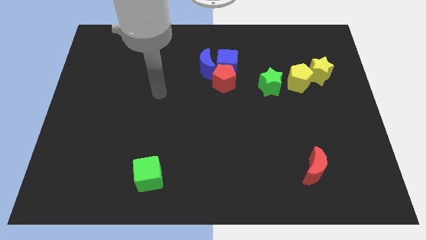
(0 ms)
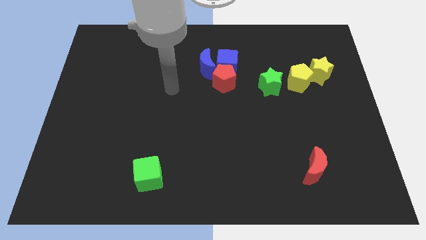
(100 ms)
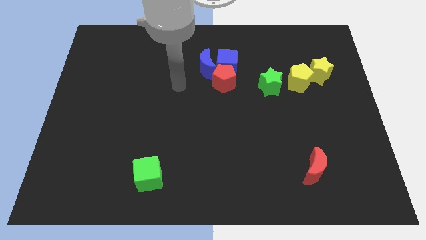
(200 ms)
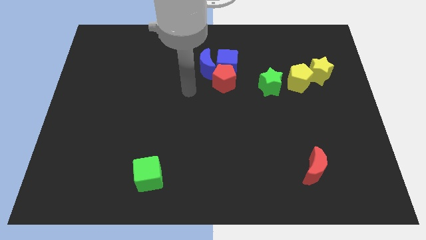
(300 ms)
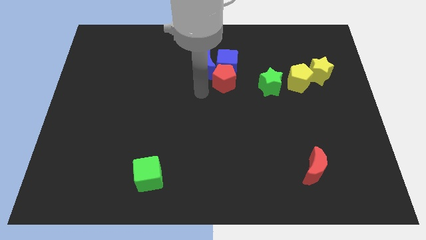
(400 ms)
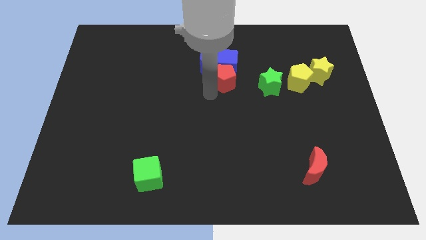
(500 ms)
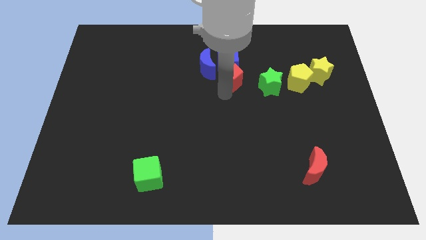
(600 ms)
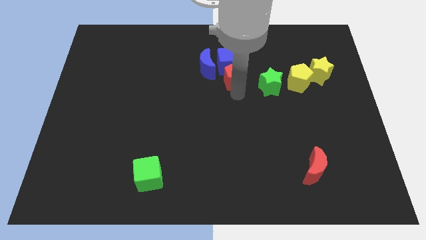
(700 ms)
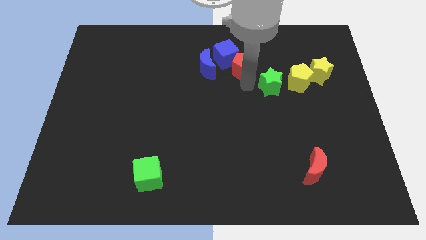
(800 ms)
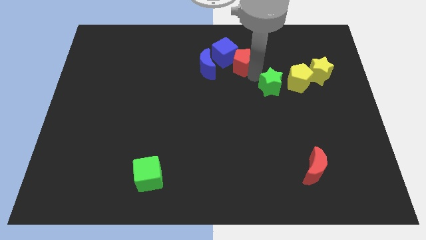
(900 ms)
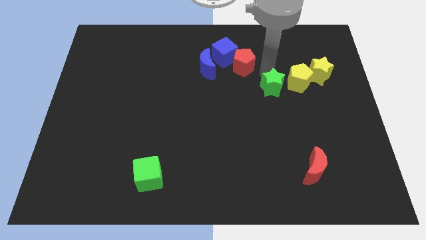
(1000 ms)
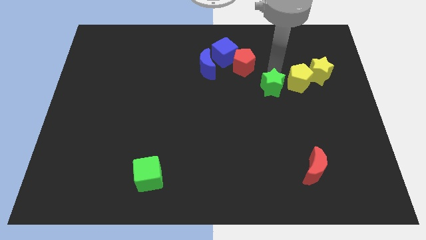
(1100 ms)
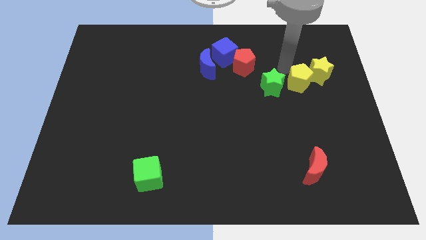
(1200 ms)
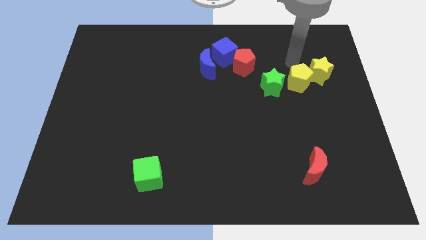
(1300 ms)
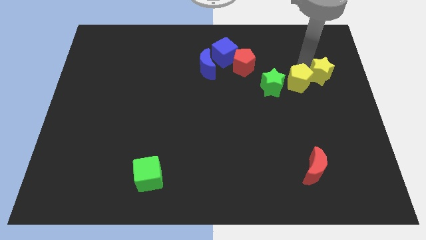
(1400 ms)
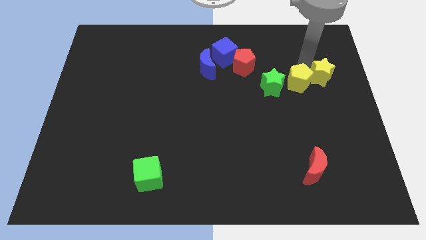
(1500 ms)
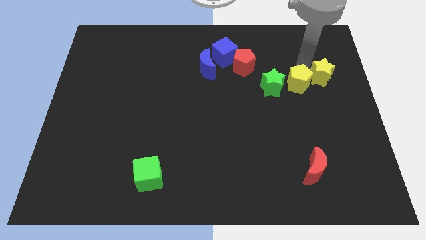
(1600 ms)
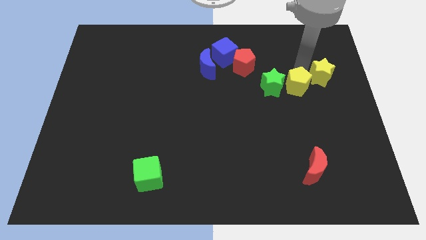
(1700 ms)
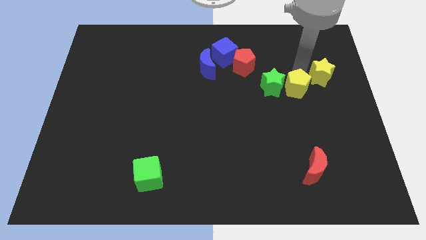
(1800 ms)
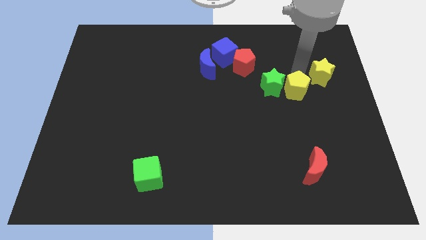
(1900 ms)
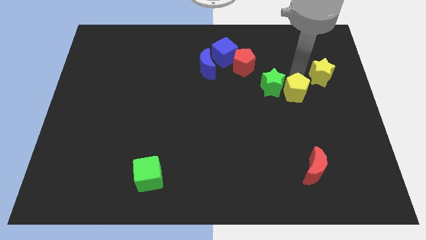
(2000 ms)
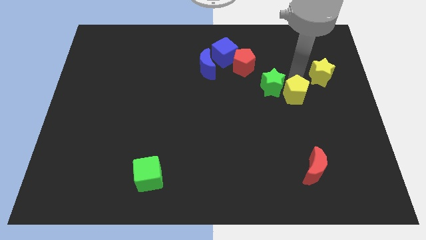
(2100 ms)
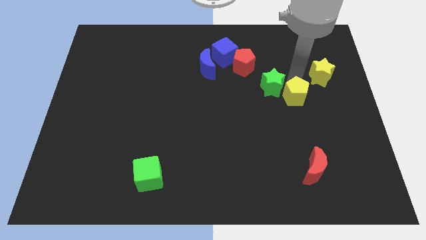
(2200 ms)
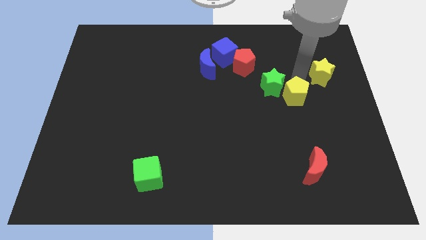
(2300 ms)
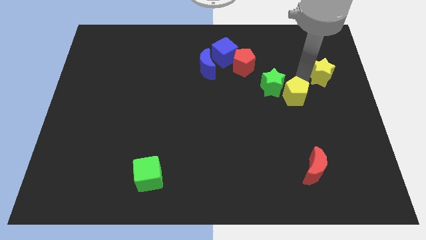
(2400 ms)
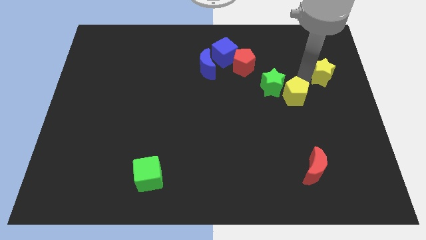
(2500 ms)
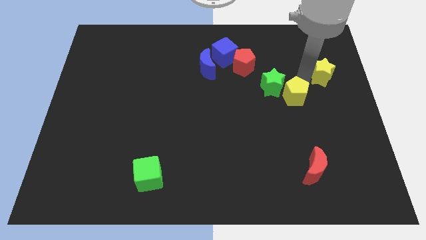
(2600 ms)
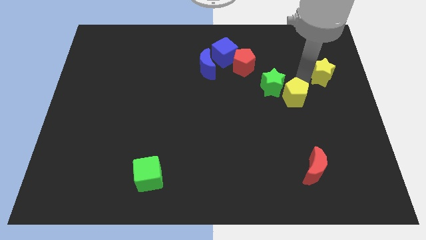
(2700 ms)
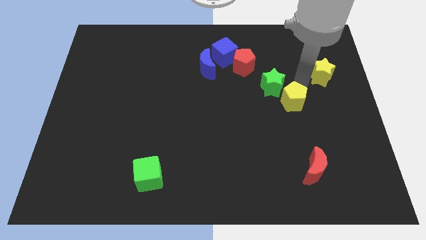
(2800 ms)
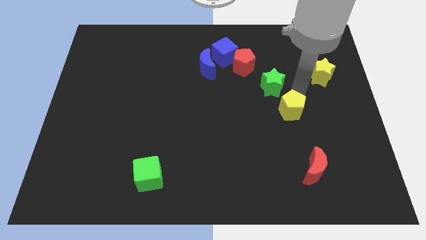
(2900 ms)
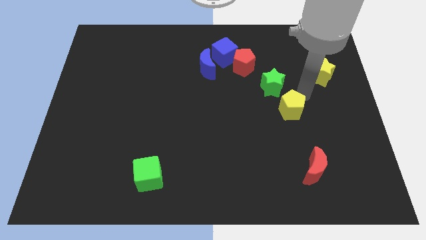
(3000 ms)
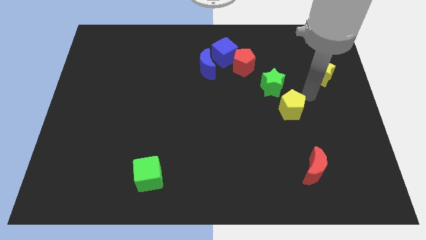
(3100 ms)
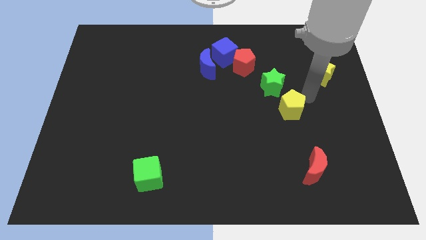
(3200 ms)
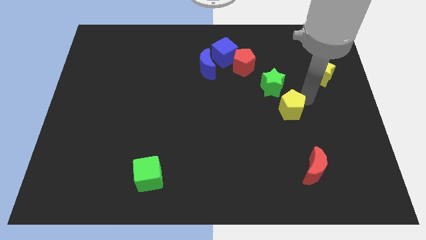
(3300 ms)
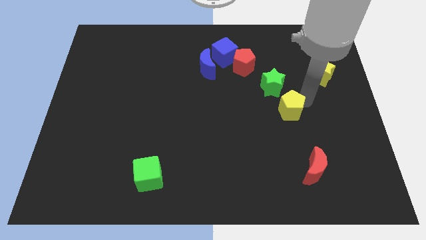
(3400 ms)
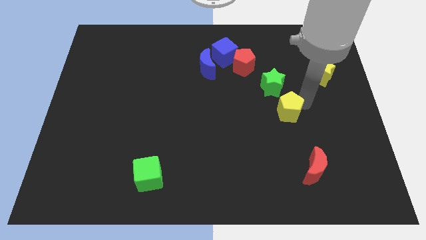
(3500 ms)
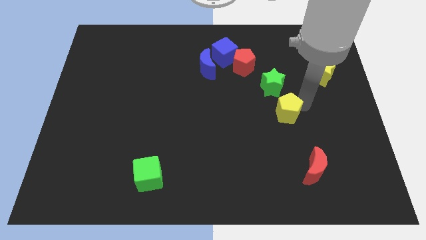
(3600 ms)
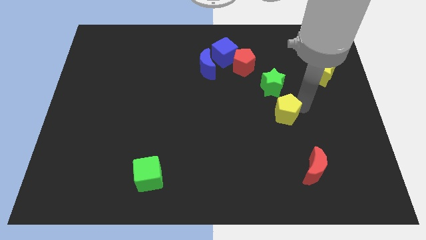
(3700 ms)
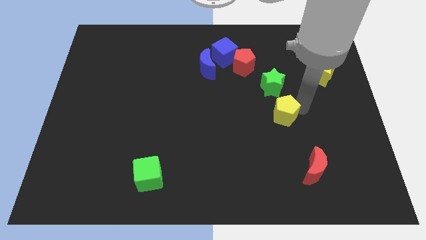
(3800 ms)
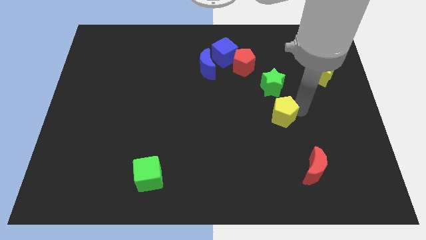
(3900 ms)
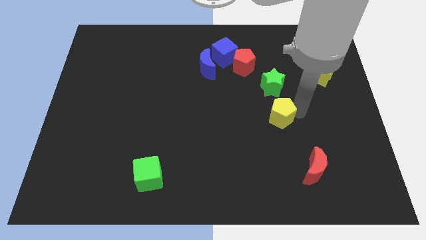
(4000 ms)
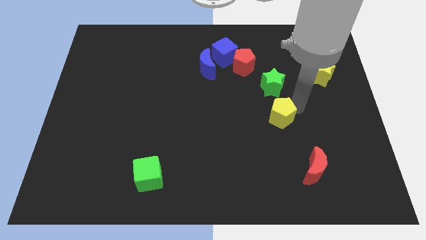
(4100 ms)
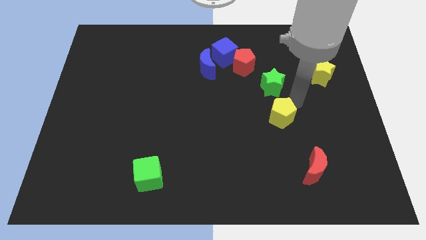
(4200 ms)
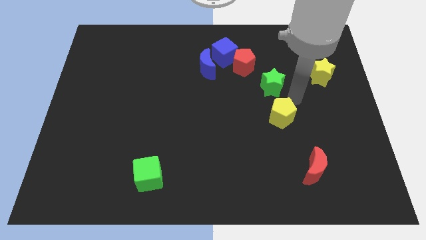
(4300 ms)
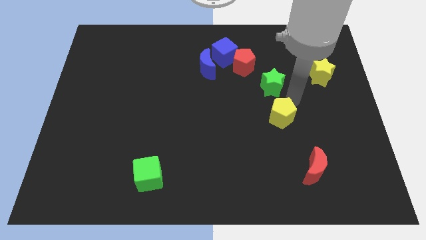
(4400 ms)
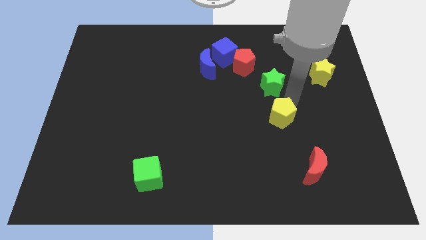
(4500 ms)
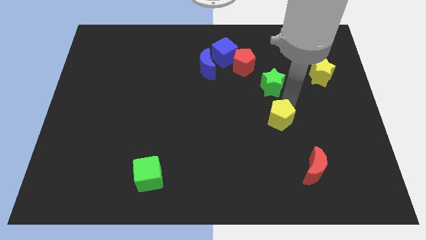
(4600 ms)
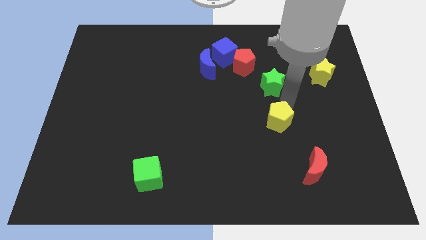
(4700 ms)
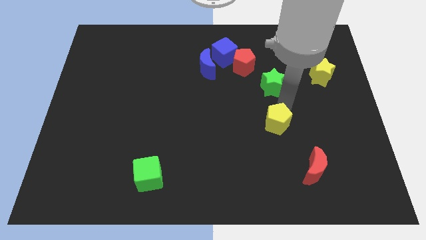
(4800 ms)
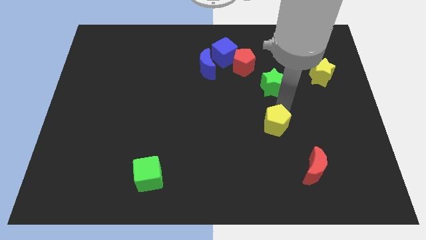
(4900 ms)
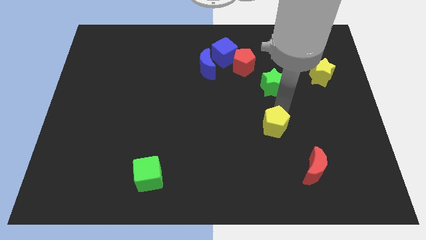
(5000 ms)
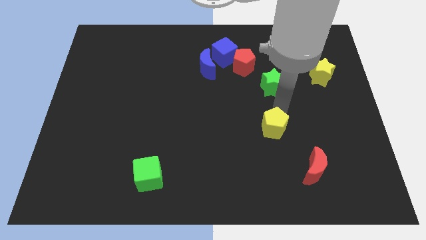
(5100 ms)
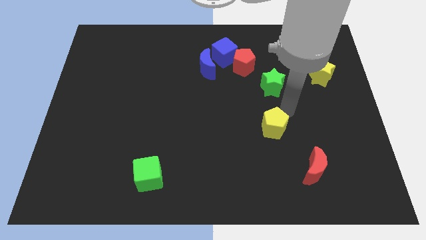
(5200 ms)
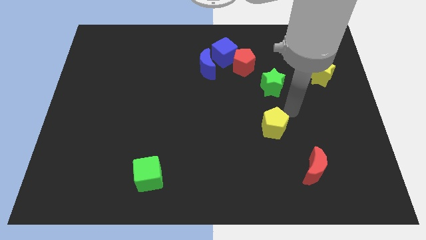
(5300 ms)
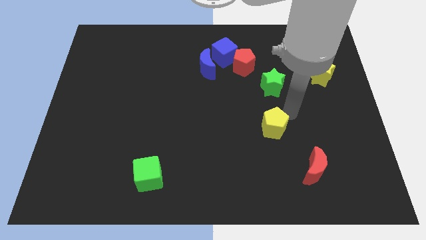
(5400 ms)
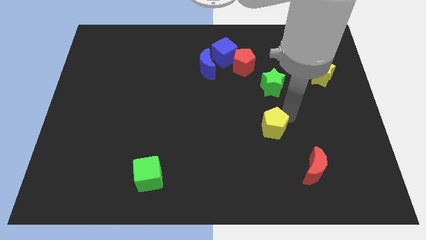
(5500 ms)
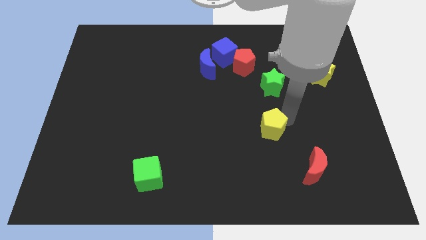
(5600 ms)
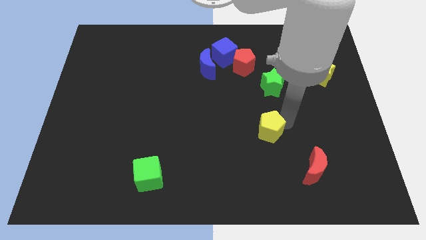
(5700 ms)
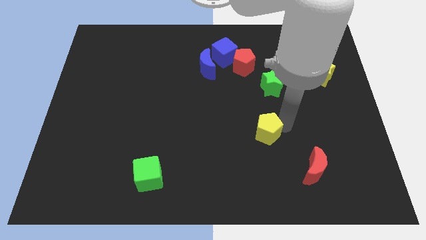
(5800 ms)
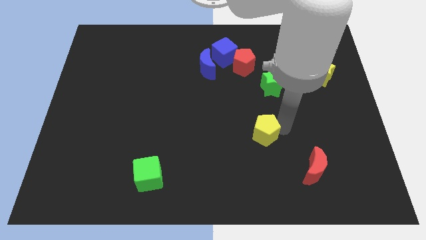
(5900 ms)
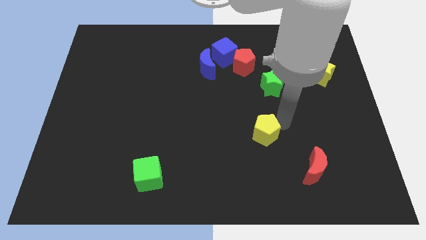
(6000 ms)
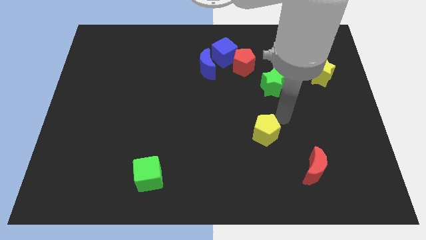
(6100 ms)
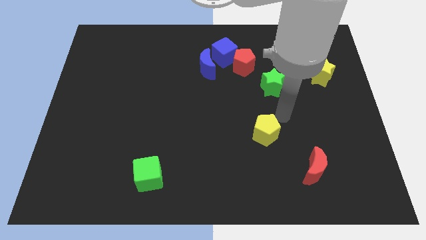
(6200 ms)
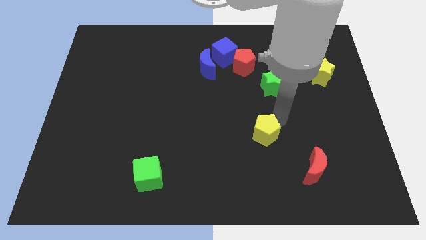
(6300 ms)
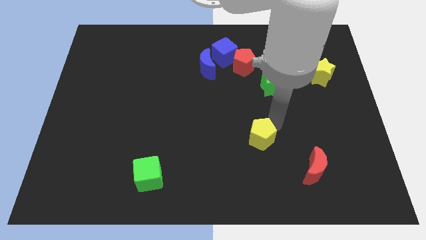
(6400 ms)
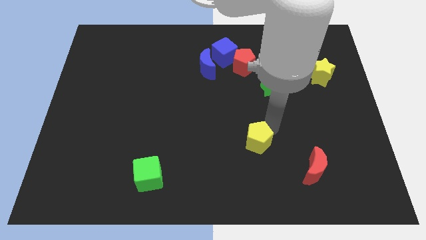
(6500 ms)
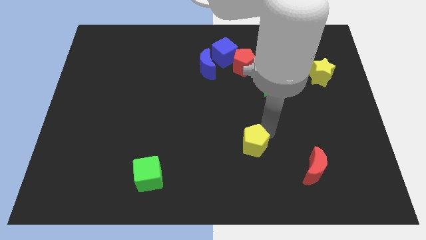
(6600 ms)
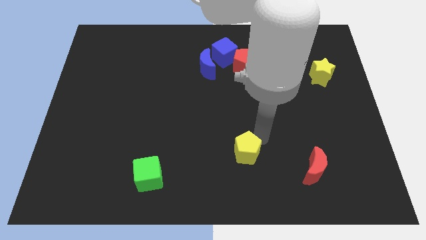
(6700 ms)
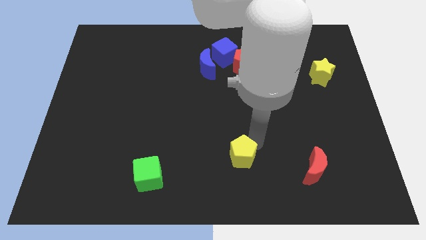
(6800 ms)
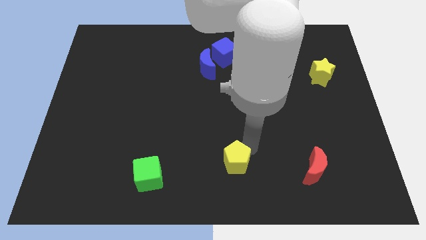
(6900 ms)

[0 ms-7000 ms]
put the yellow pentagon to the bottom side
